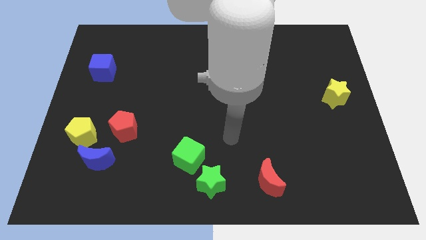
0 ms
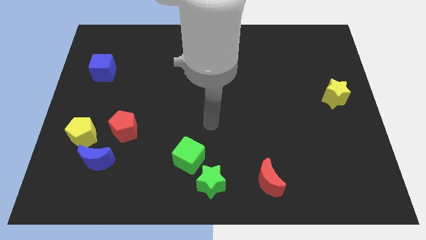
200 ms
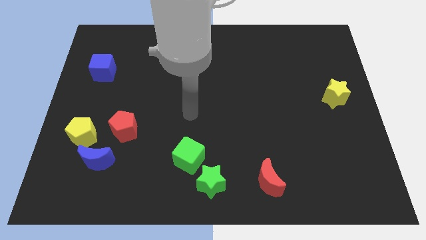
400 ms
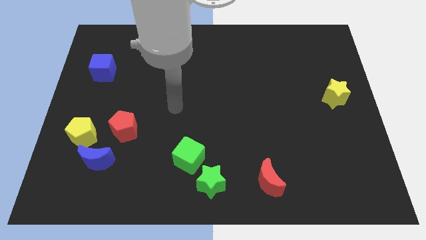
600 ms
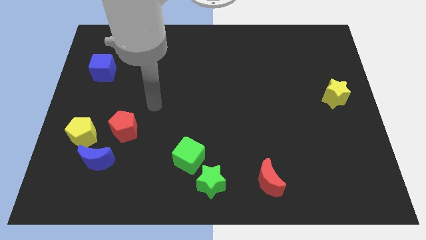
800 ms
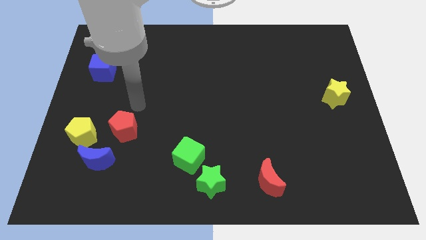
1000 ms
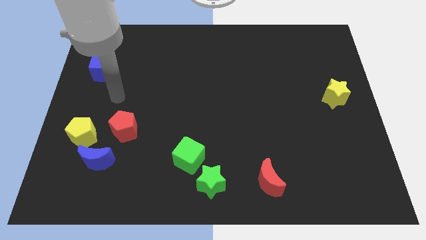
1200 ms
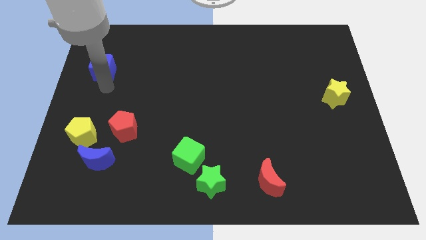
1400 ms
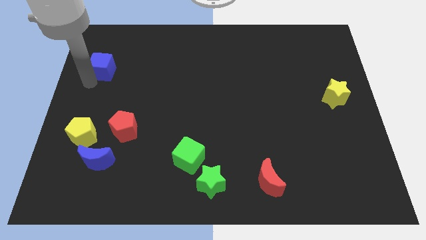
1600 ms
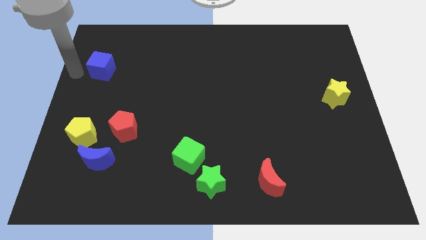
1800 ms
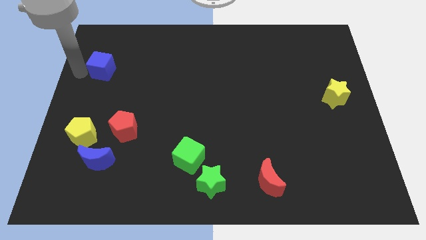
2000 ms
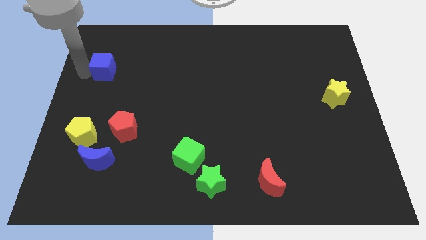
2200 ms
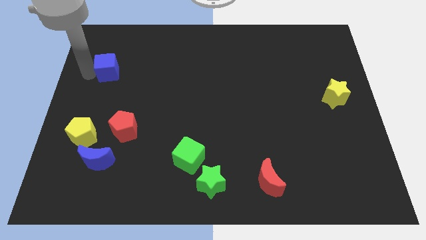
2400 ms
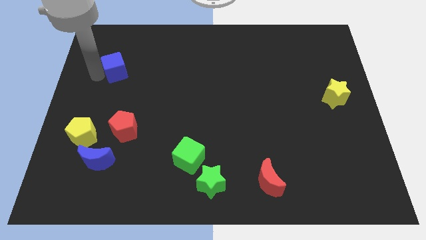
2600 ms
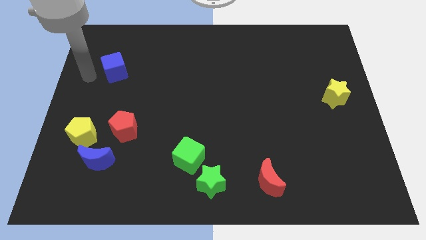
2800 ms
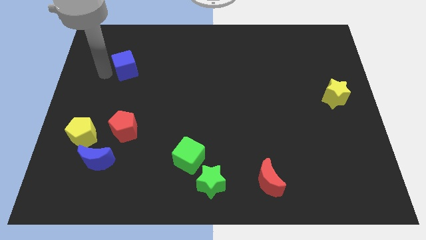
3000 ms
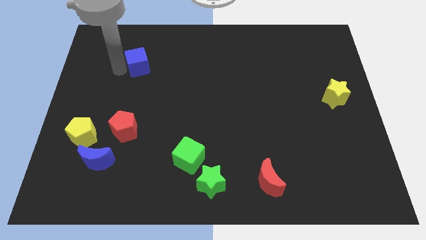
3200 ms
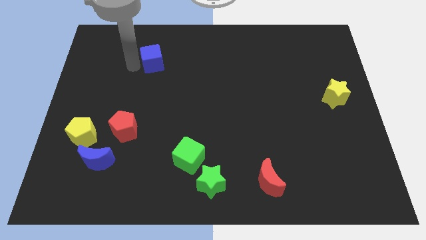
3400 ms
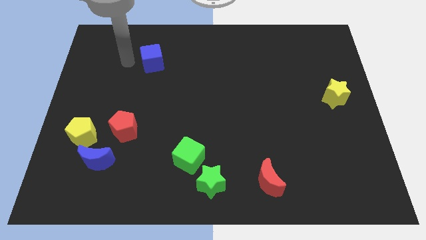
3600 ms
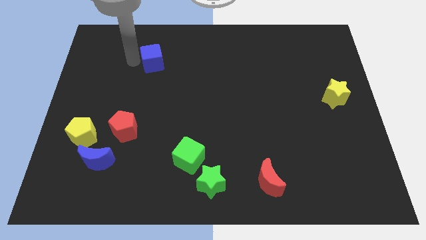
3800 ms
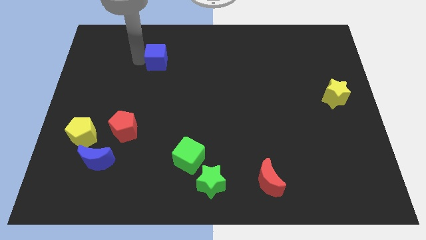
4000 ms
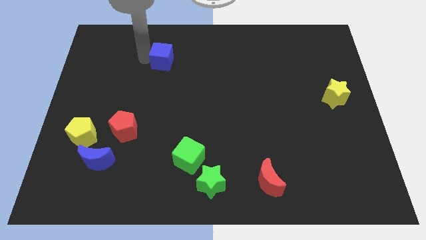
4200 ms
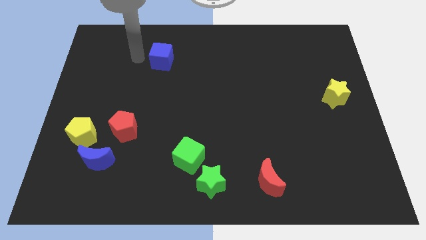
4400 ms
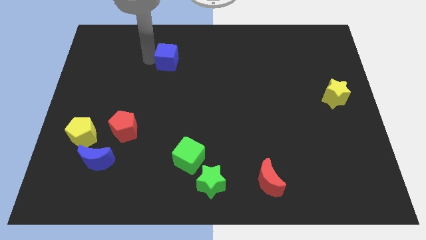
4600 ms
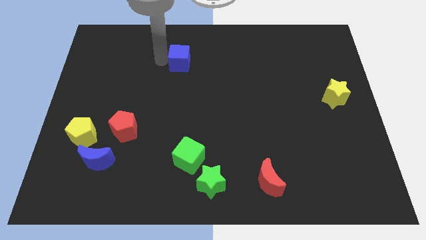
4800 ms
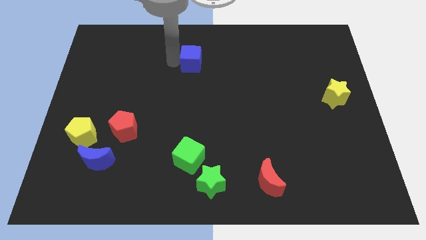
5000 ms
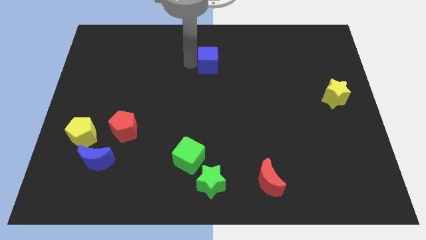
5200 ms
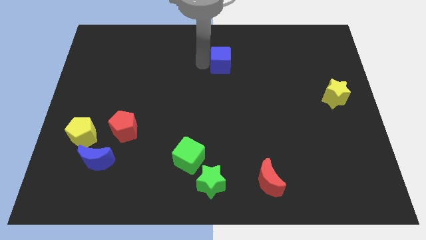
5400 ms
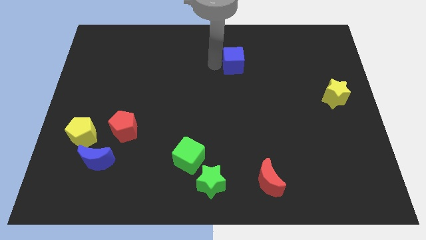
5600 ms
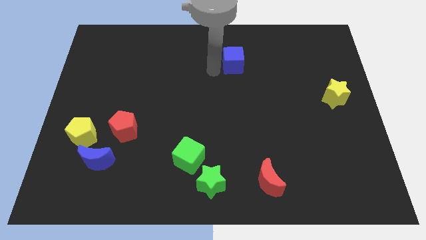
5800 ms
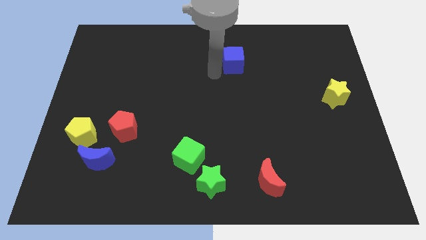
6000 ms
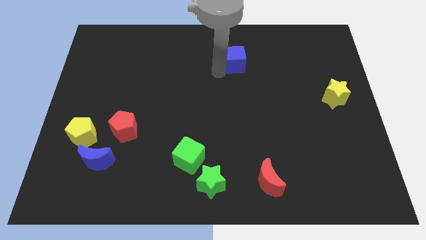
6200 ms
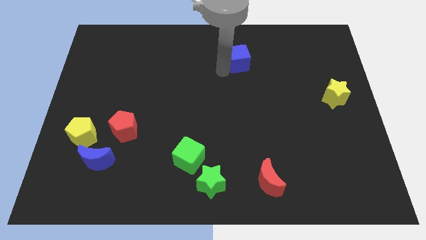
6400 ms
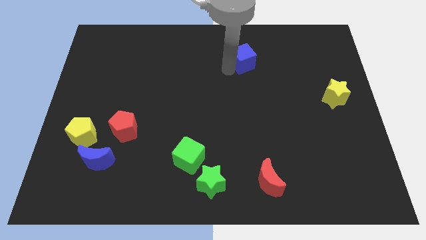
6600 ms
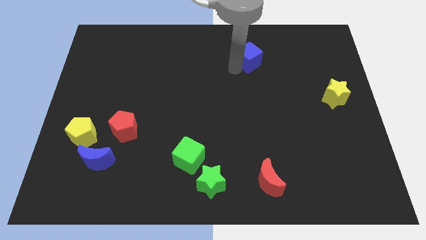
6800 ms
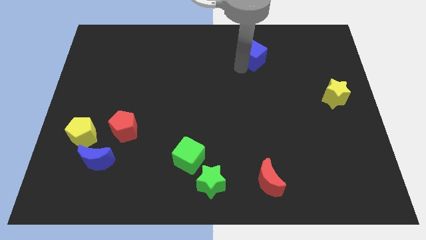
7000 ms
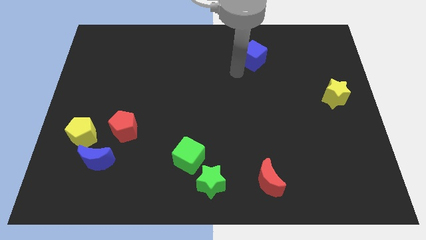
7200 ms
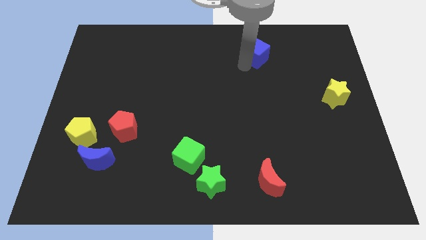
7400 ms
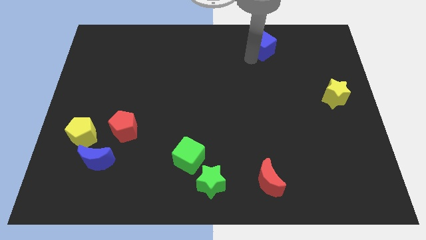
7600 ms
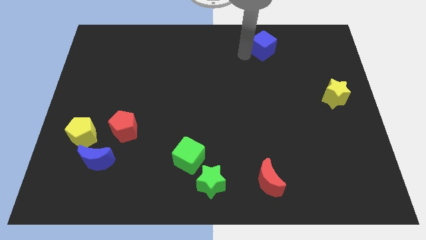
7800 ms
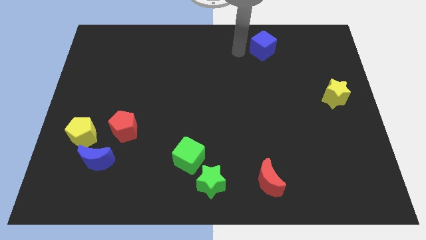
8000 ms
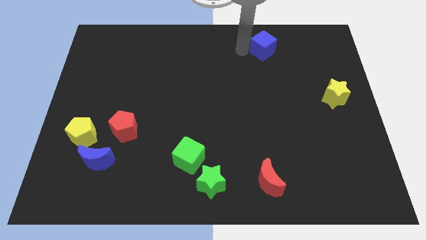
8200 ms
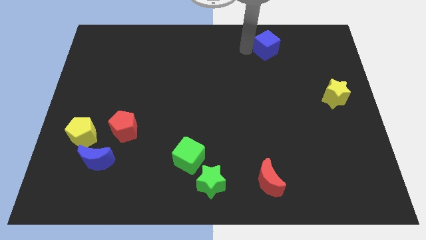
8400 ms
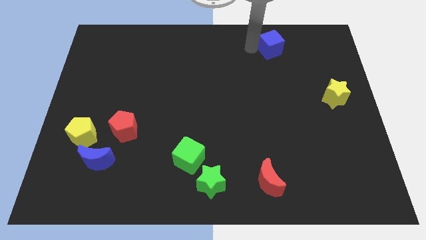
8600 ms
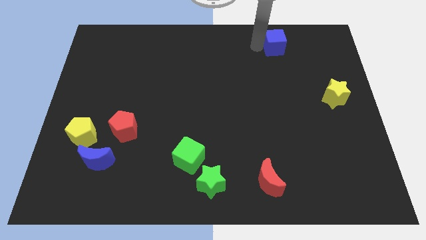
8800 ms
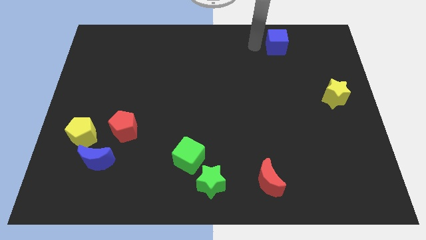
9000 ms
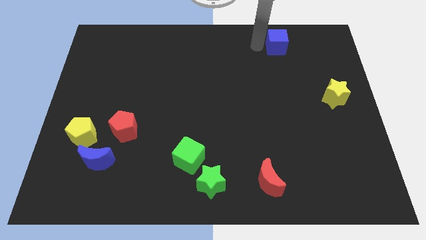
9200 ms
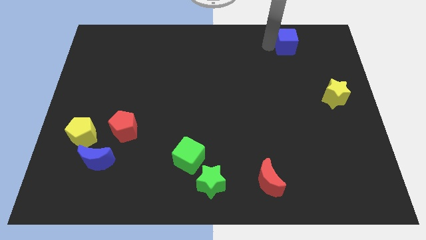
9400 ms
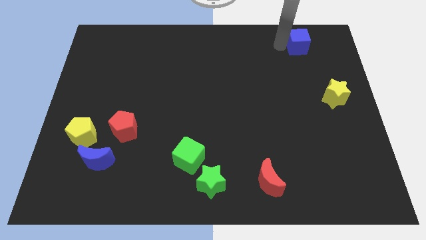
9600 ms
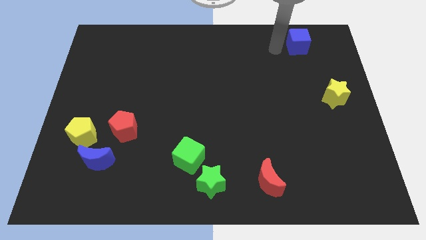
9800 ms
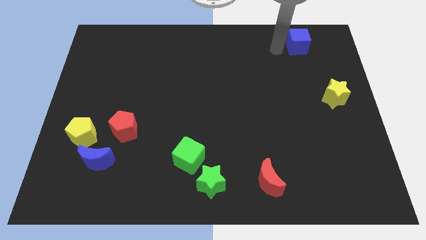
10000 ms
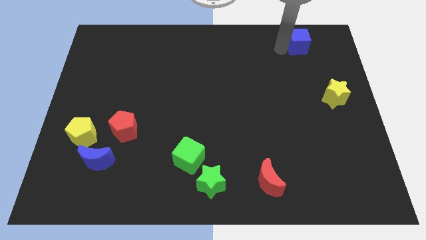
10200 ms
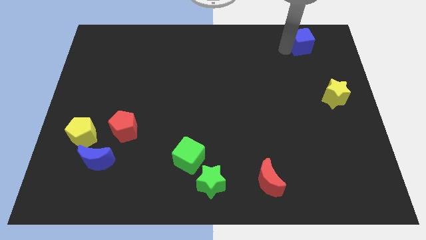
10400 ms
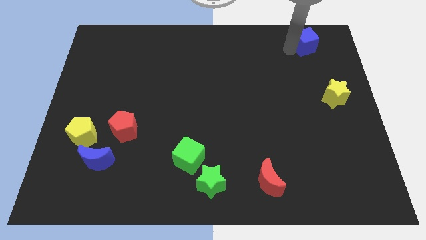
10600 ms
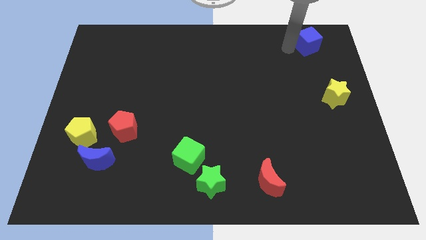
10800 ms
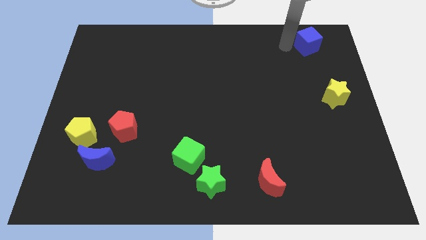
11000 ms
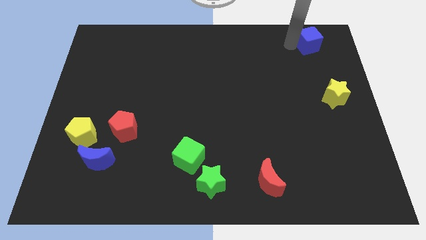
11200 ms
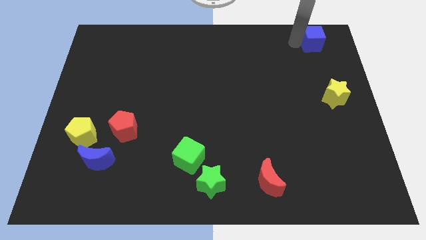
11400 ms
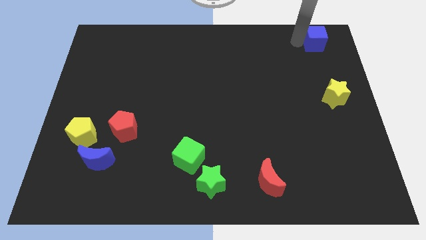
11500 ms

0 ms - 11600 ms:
put the blue cube to the top right of the board
